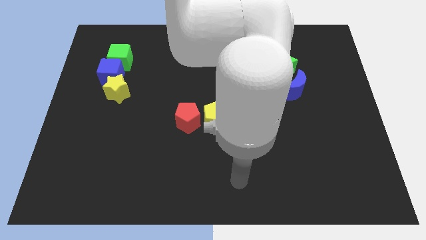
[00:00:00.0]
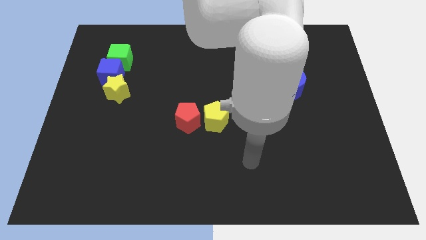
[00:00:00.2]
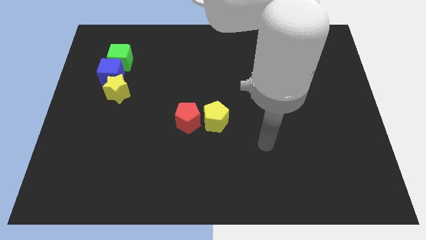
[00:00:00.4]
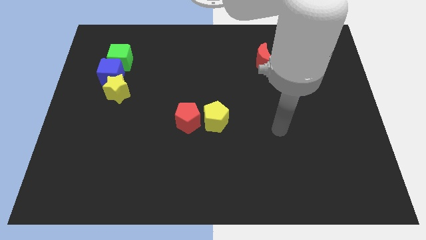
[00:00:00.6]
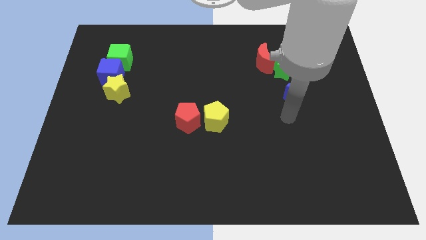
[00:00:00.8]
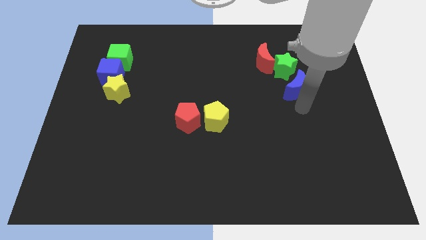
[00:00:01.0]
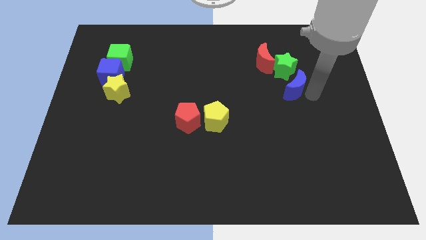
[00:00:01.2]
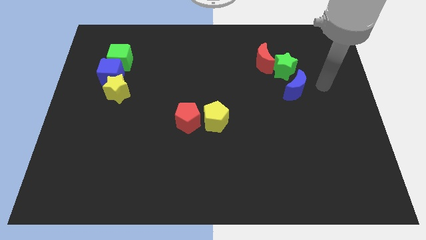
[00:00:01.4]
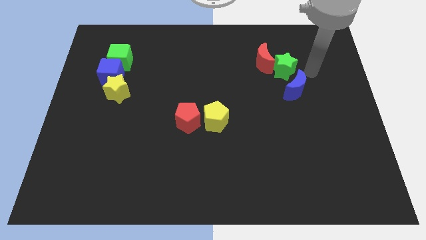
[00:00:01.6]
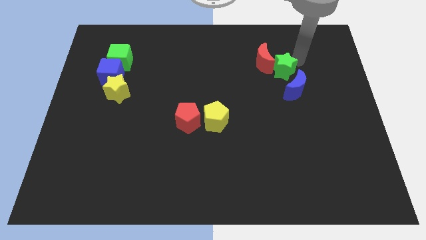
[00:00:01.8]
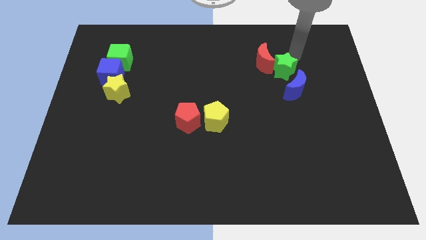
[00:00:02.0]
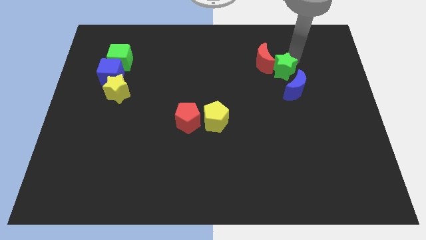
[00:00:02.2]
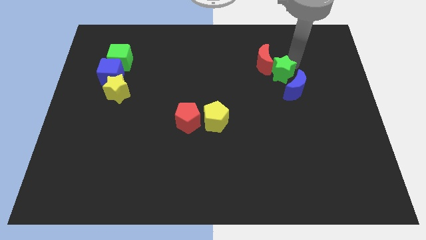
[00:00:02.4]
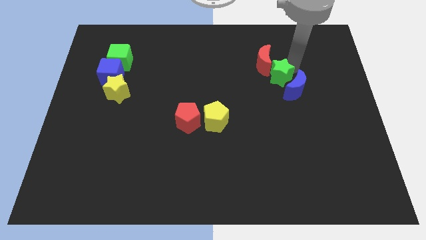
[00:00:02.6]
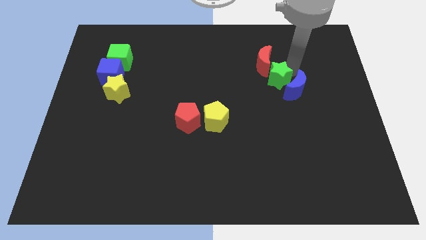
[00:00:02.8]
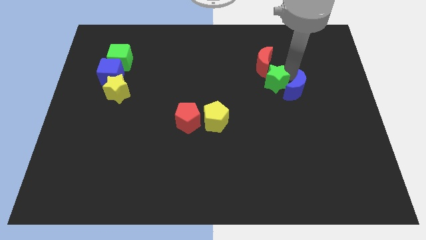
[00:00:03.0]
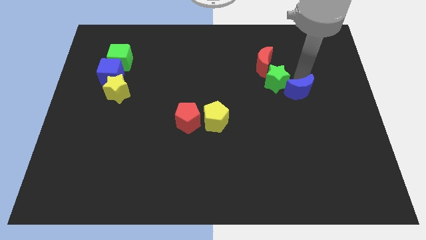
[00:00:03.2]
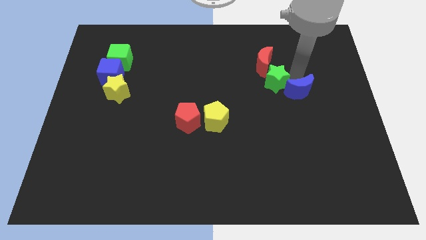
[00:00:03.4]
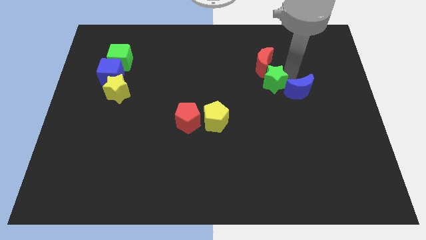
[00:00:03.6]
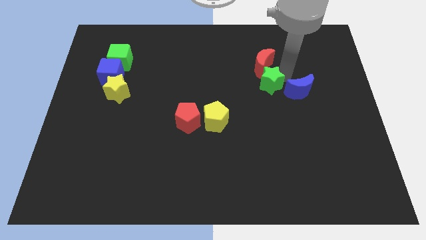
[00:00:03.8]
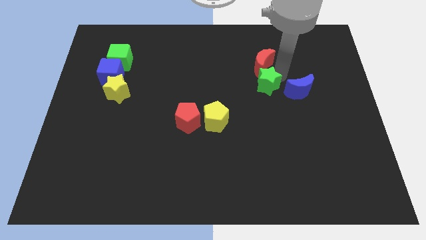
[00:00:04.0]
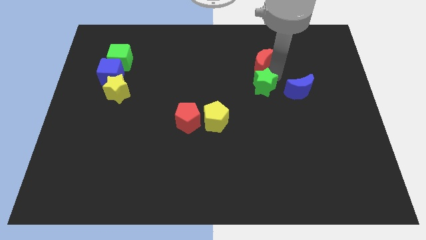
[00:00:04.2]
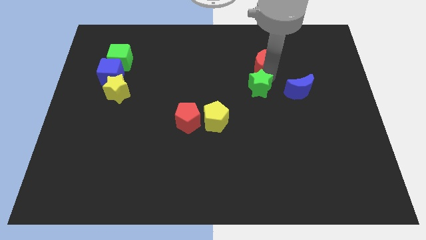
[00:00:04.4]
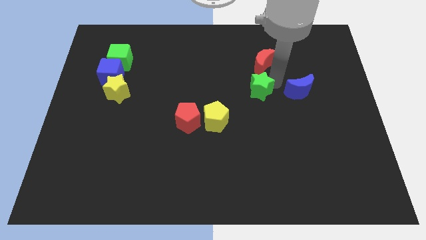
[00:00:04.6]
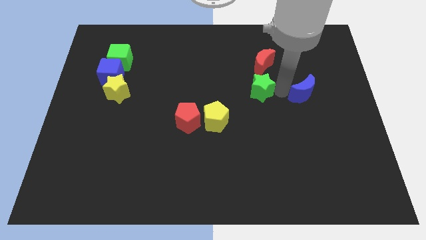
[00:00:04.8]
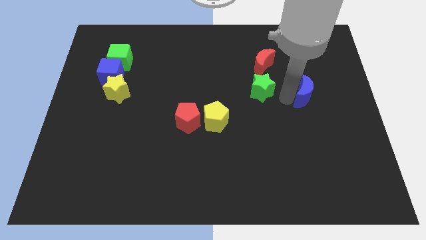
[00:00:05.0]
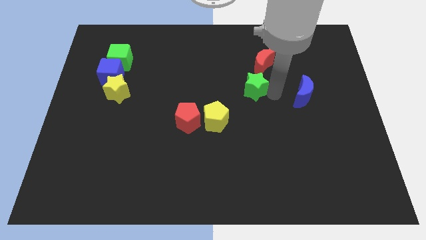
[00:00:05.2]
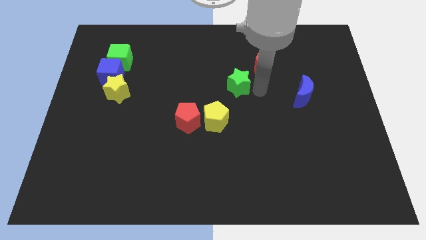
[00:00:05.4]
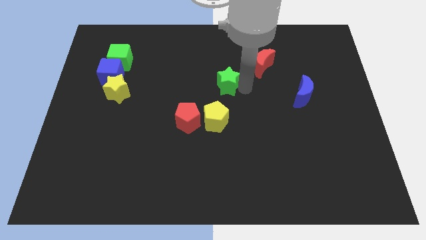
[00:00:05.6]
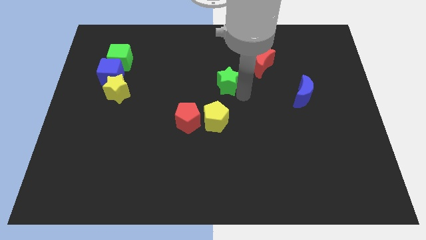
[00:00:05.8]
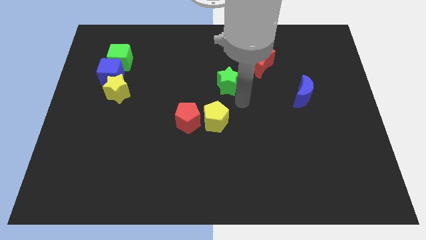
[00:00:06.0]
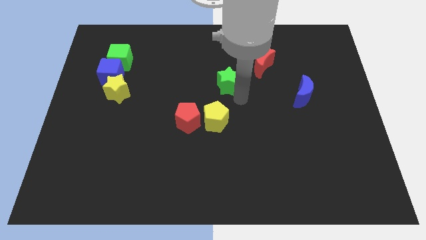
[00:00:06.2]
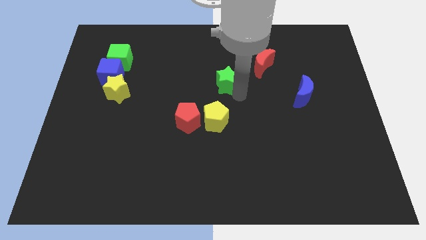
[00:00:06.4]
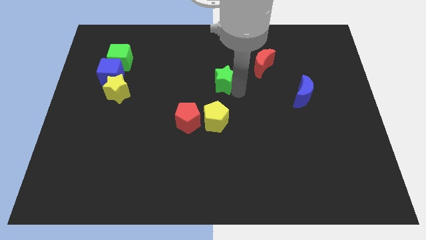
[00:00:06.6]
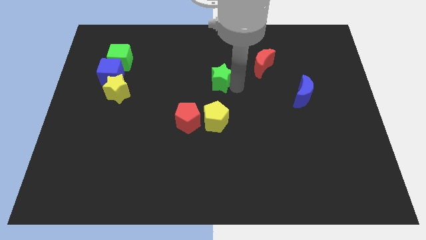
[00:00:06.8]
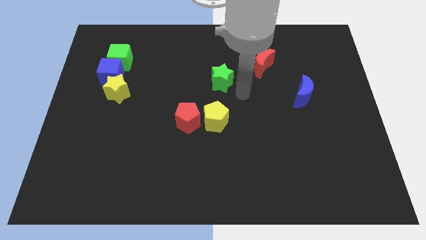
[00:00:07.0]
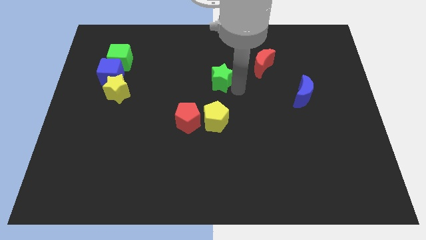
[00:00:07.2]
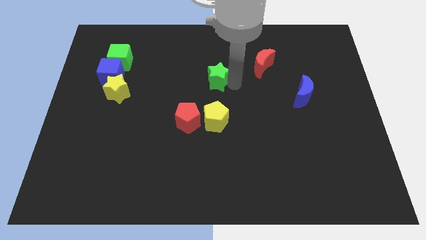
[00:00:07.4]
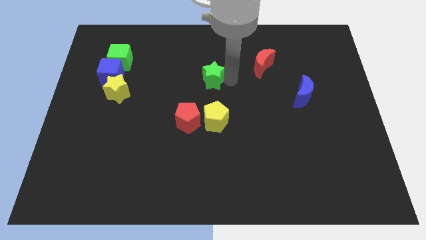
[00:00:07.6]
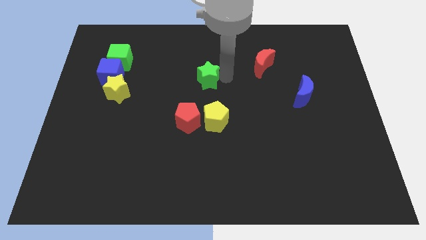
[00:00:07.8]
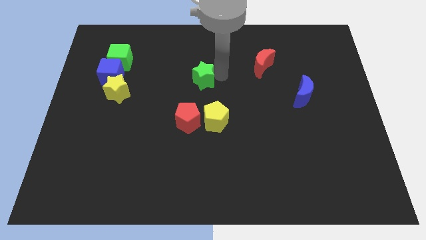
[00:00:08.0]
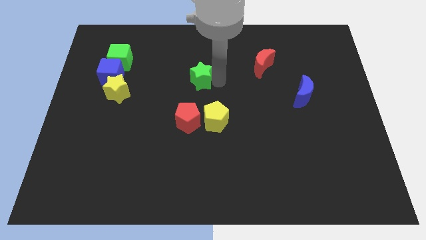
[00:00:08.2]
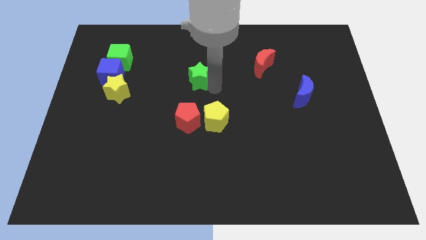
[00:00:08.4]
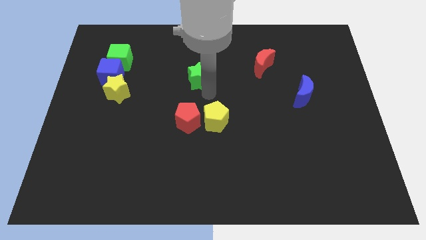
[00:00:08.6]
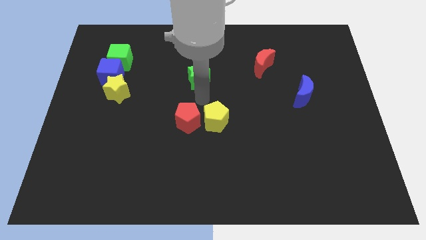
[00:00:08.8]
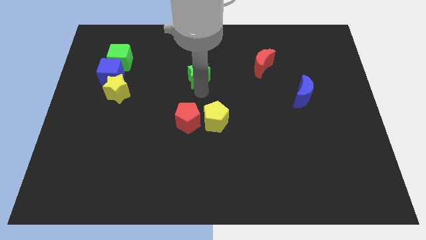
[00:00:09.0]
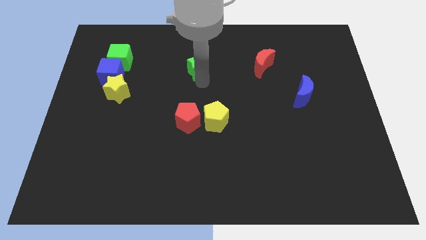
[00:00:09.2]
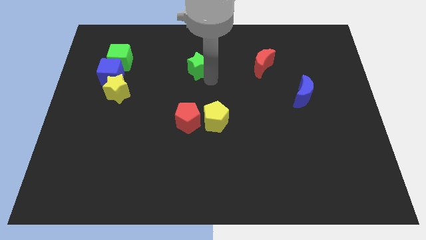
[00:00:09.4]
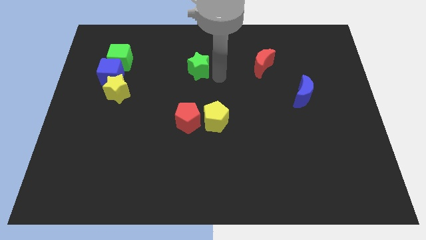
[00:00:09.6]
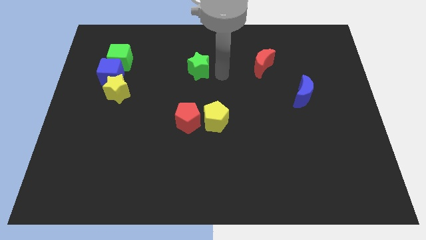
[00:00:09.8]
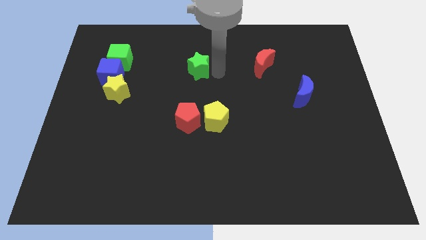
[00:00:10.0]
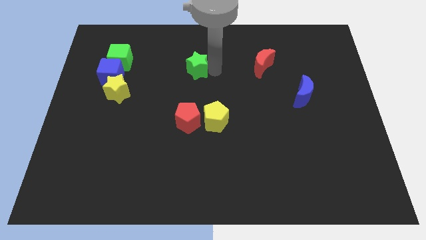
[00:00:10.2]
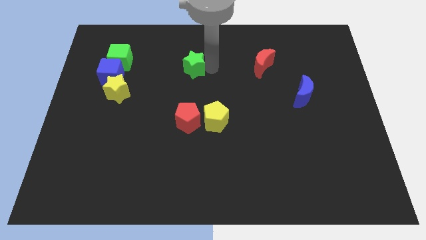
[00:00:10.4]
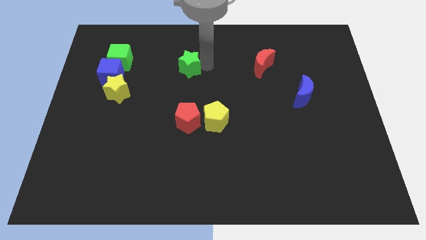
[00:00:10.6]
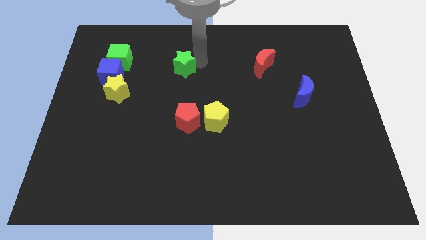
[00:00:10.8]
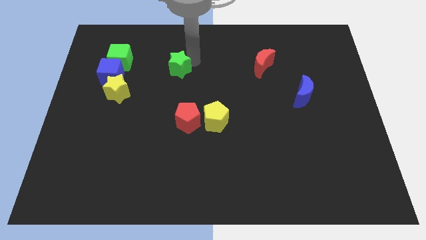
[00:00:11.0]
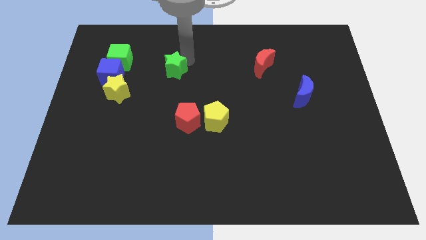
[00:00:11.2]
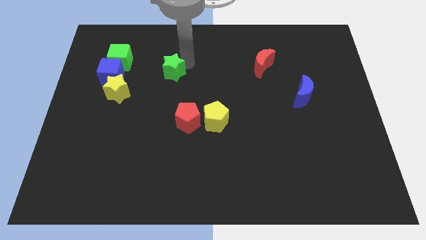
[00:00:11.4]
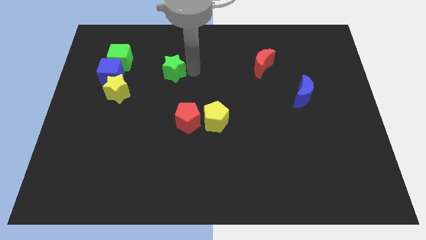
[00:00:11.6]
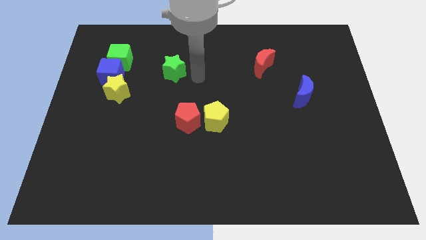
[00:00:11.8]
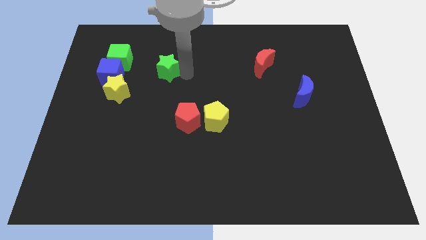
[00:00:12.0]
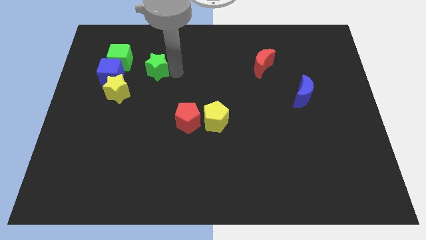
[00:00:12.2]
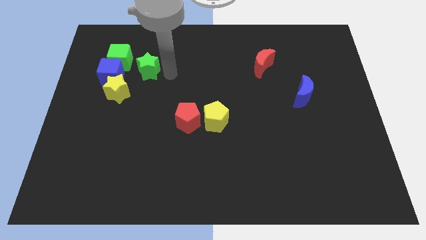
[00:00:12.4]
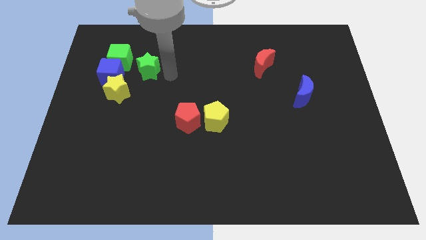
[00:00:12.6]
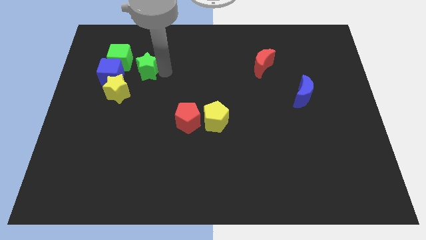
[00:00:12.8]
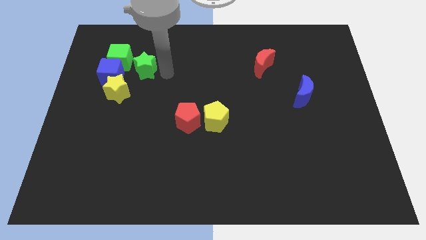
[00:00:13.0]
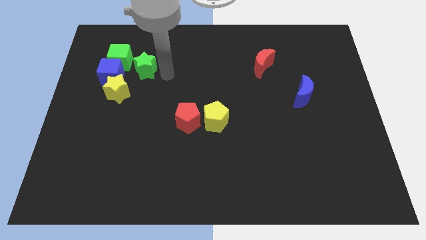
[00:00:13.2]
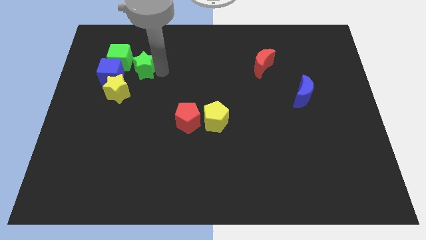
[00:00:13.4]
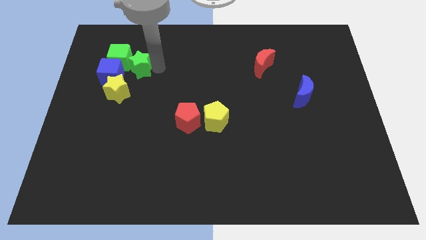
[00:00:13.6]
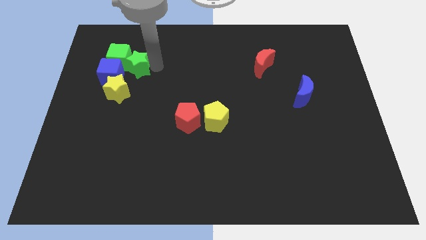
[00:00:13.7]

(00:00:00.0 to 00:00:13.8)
move the green star next to the green cube
